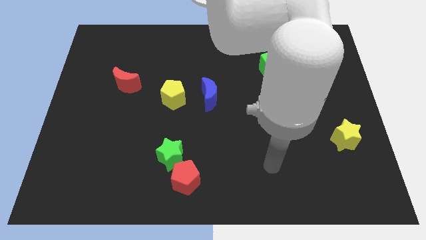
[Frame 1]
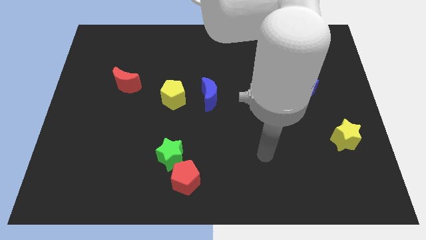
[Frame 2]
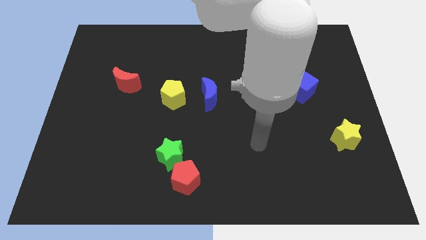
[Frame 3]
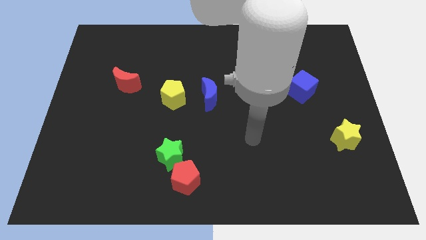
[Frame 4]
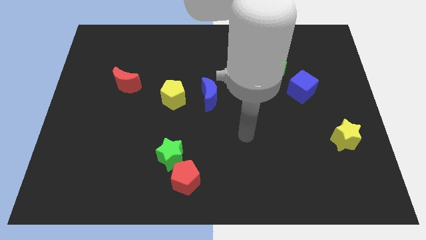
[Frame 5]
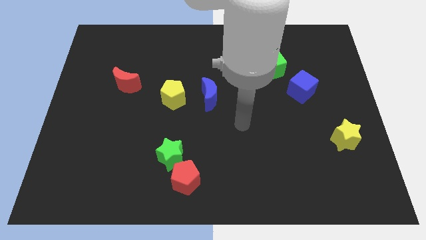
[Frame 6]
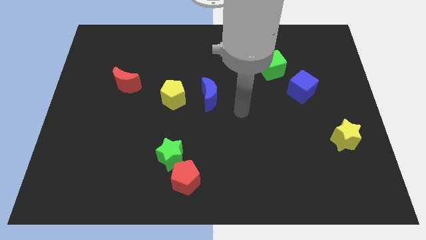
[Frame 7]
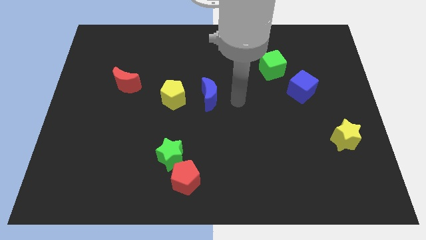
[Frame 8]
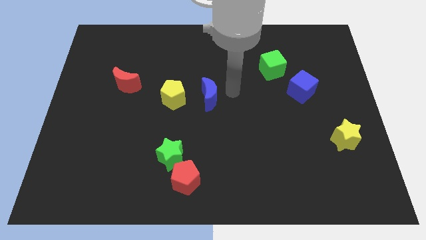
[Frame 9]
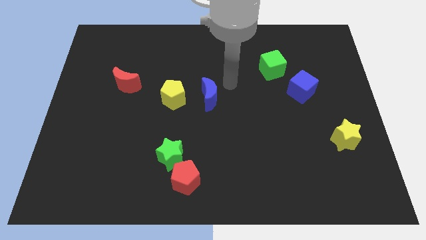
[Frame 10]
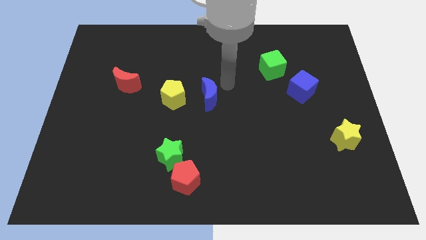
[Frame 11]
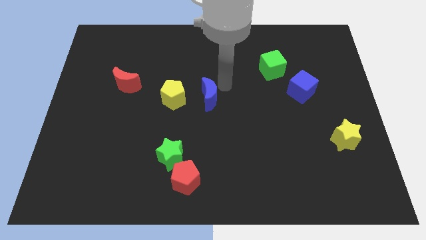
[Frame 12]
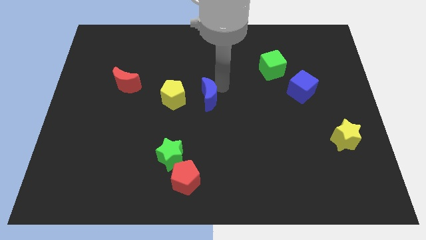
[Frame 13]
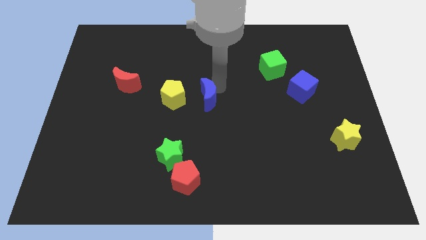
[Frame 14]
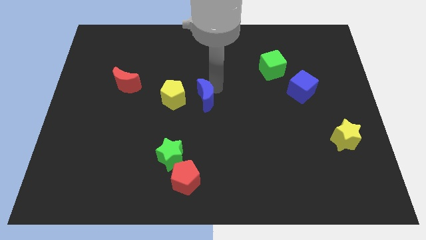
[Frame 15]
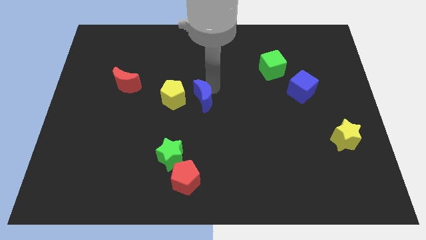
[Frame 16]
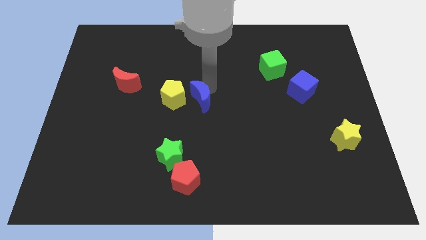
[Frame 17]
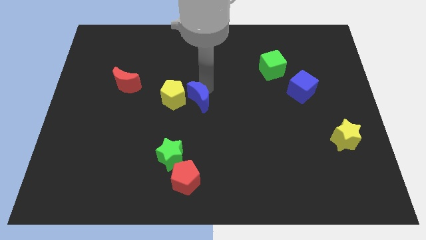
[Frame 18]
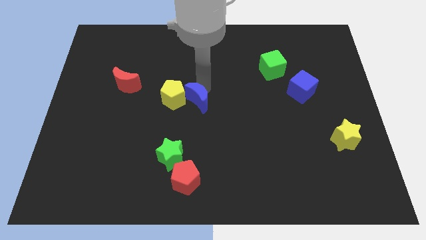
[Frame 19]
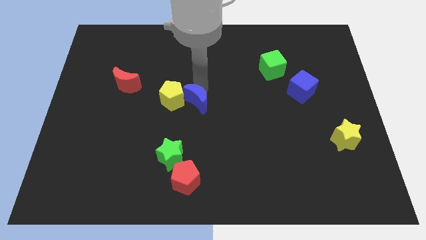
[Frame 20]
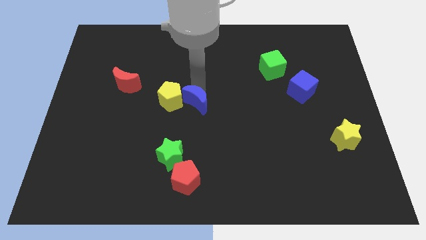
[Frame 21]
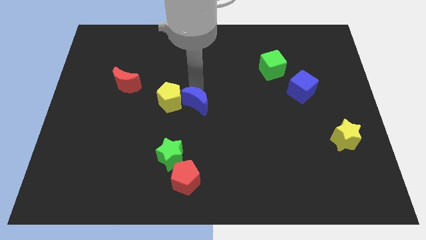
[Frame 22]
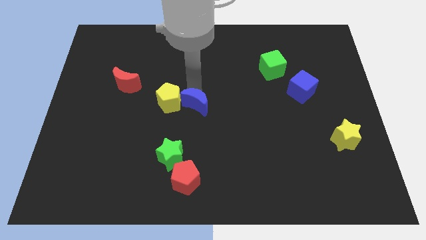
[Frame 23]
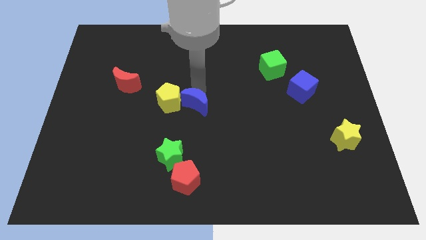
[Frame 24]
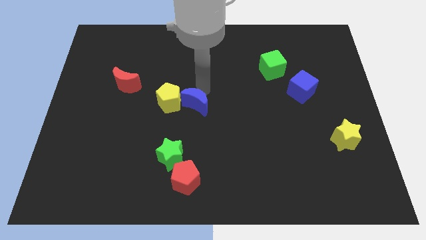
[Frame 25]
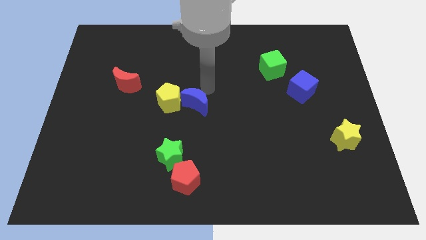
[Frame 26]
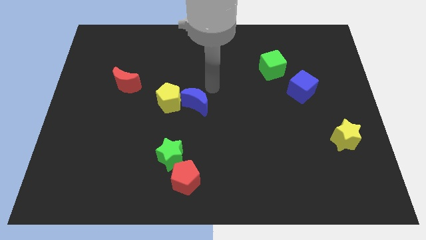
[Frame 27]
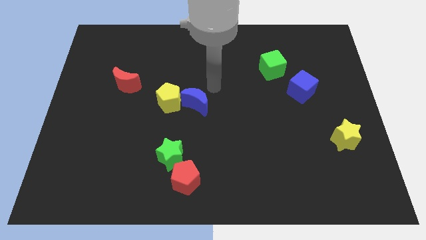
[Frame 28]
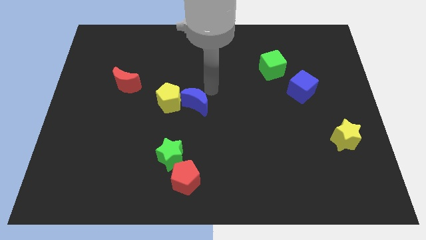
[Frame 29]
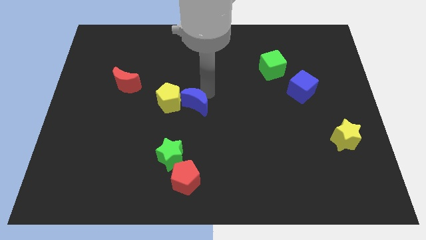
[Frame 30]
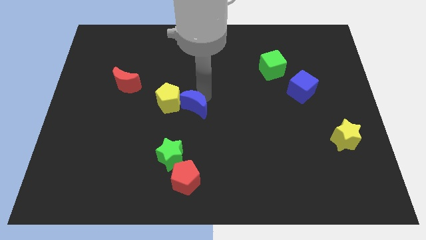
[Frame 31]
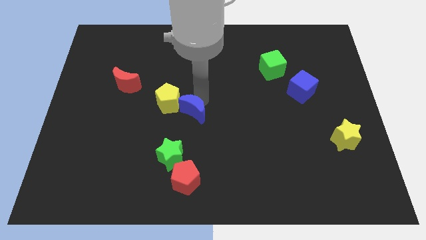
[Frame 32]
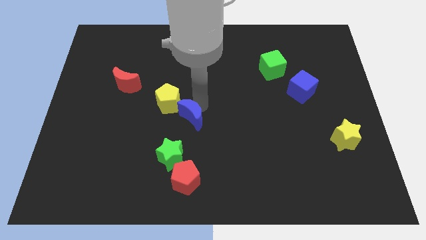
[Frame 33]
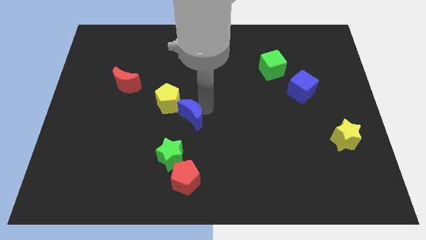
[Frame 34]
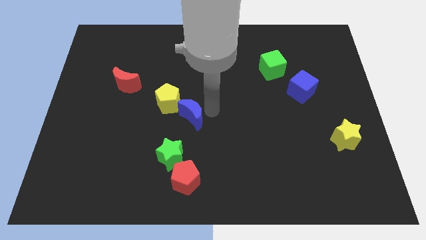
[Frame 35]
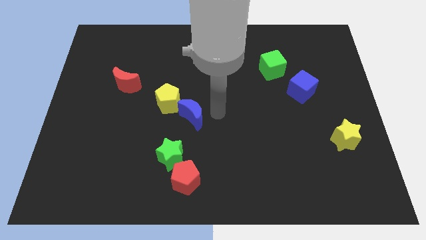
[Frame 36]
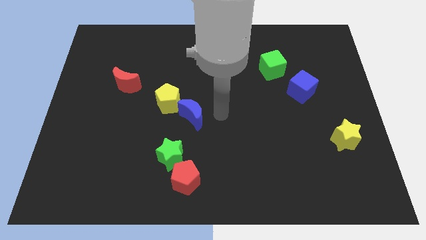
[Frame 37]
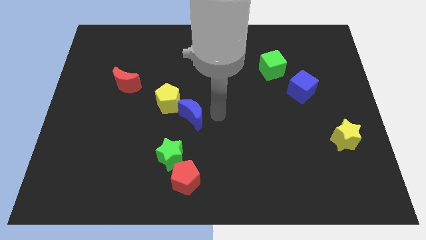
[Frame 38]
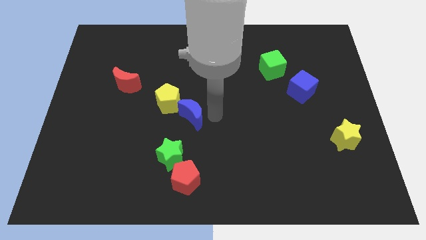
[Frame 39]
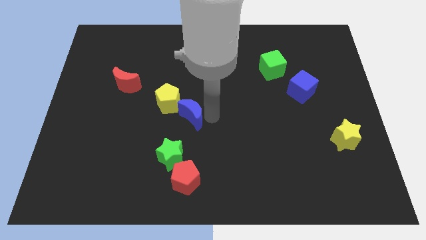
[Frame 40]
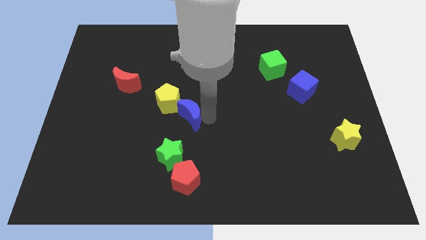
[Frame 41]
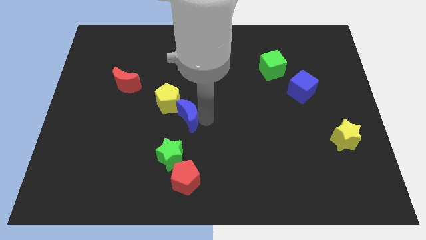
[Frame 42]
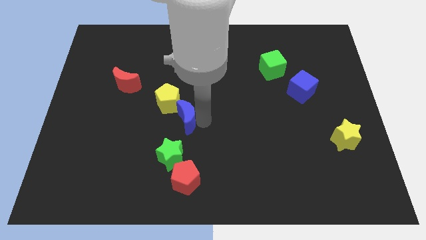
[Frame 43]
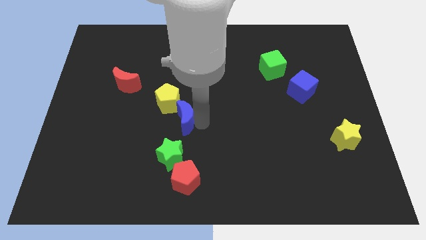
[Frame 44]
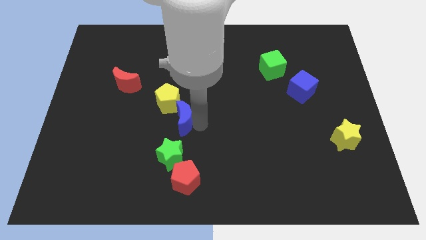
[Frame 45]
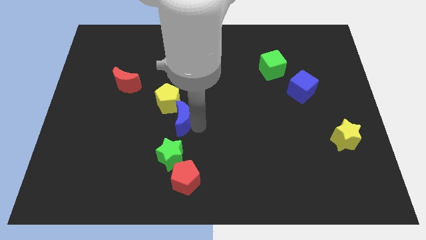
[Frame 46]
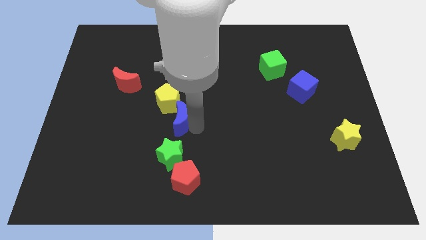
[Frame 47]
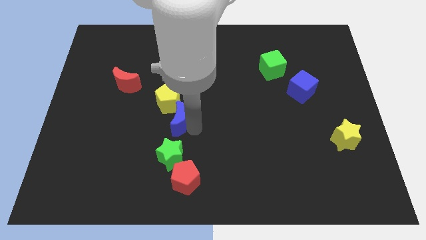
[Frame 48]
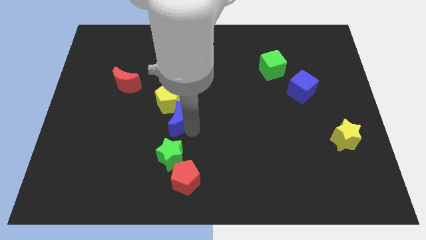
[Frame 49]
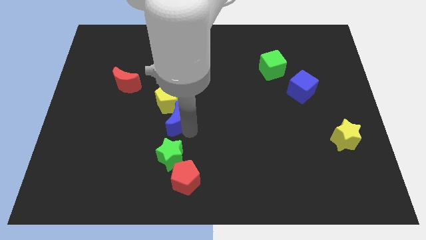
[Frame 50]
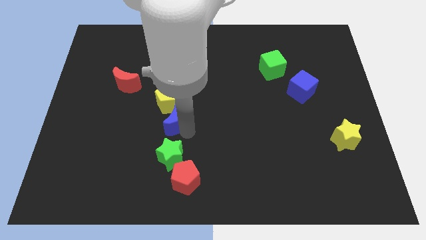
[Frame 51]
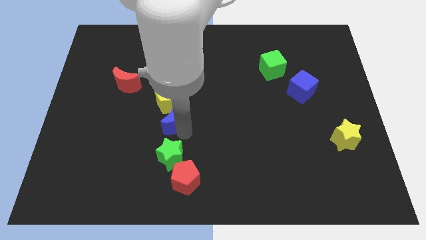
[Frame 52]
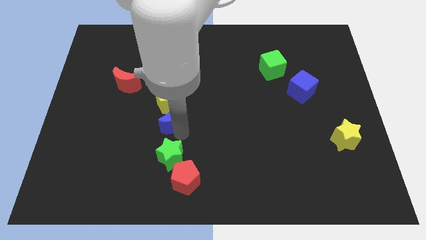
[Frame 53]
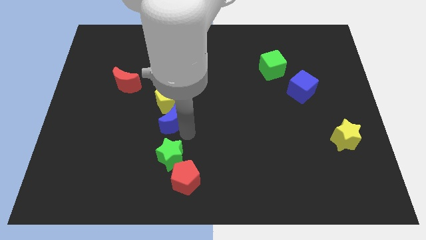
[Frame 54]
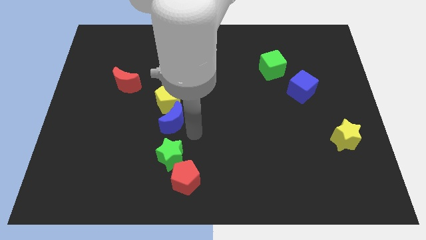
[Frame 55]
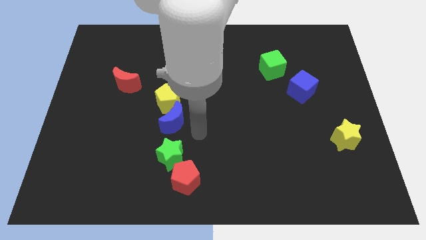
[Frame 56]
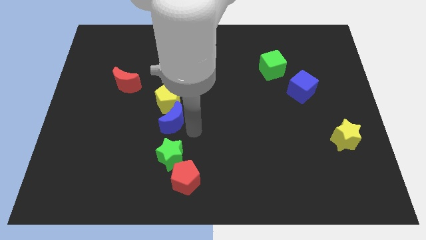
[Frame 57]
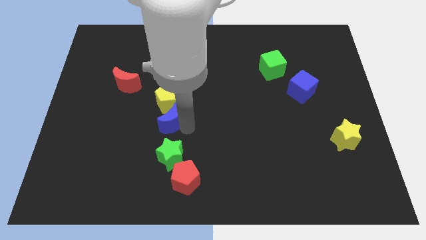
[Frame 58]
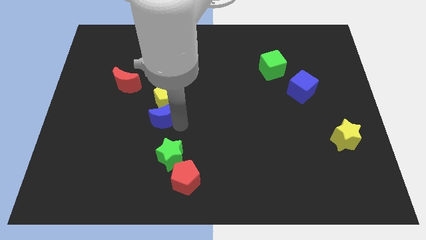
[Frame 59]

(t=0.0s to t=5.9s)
slightly move the blue moon left

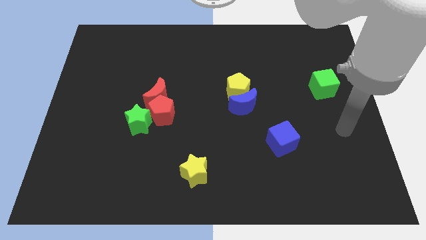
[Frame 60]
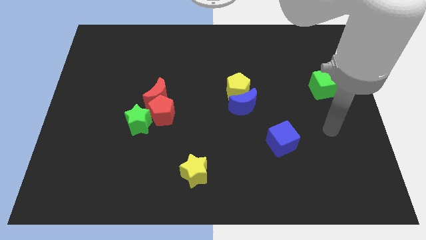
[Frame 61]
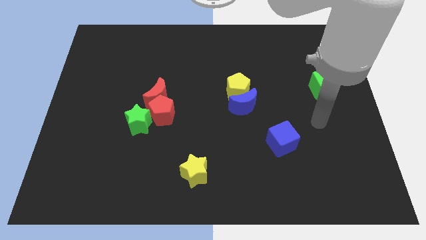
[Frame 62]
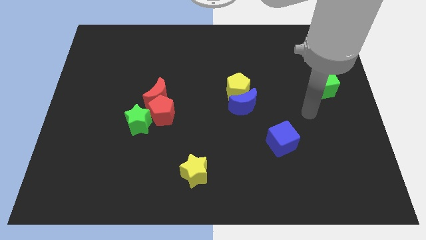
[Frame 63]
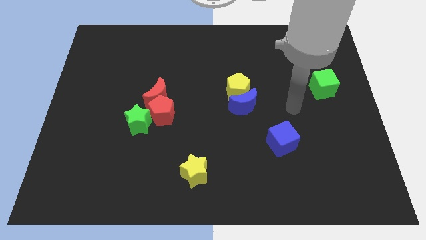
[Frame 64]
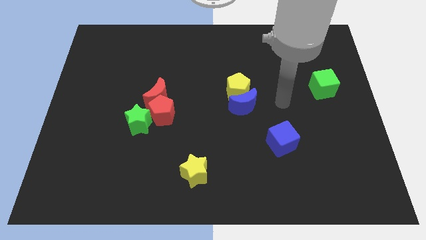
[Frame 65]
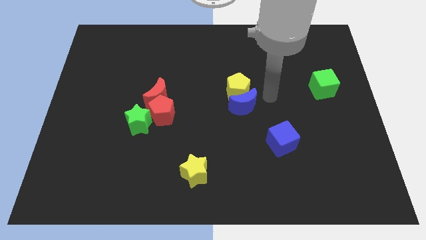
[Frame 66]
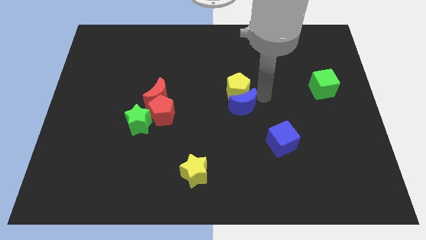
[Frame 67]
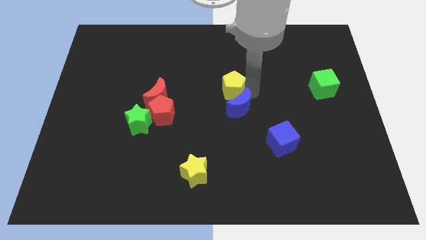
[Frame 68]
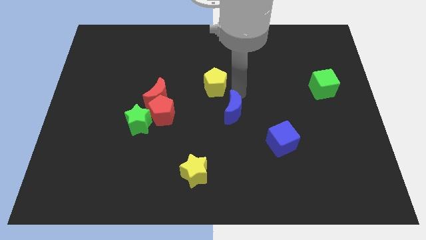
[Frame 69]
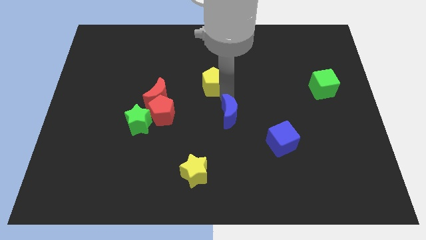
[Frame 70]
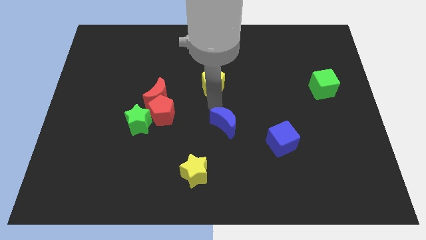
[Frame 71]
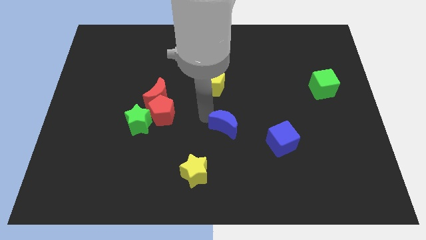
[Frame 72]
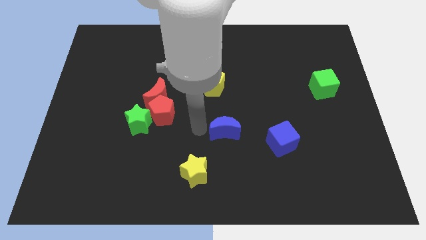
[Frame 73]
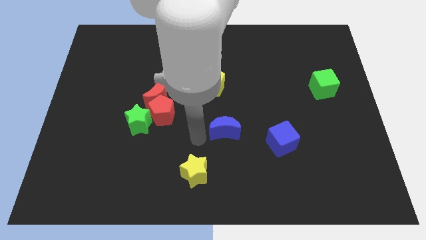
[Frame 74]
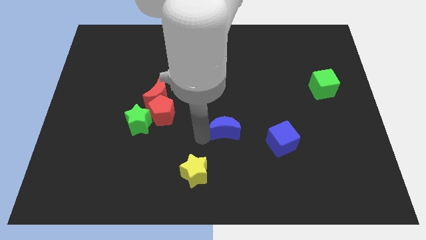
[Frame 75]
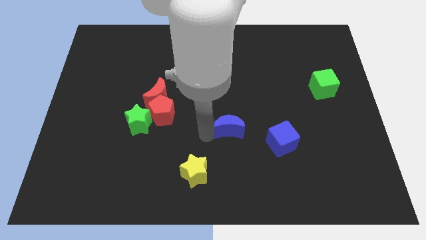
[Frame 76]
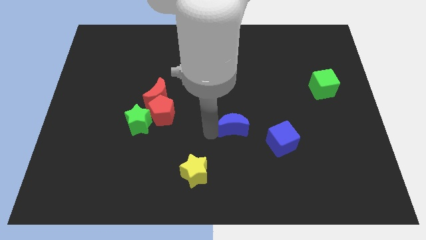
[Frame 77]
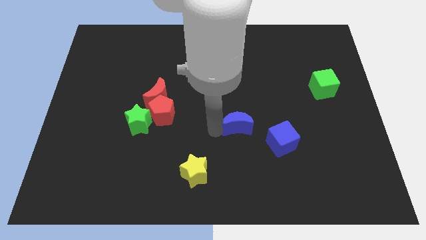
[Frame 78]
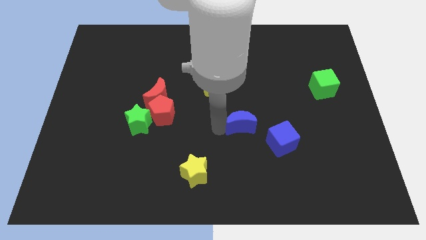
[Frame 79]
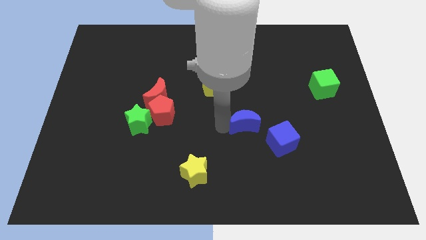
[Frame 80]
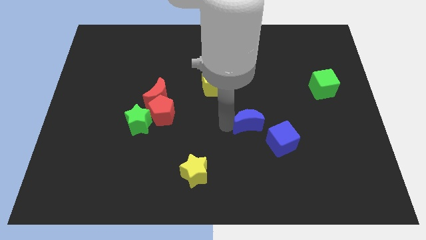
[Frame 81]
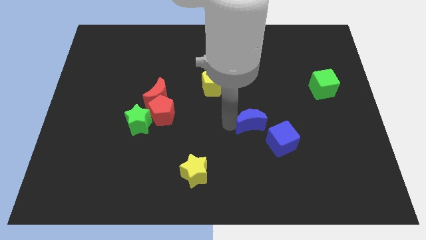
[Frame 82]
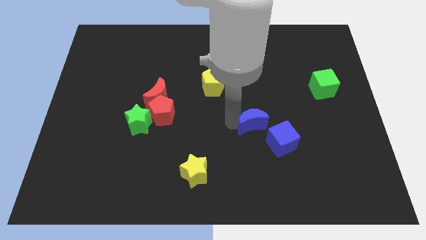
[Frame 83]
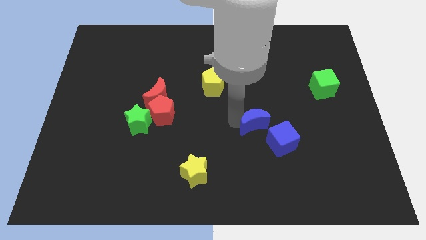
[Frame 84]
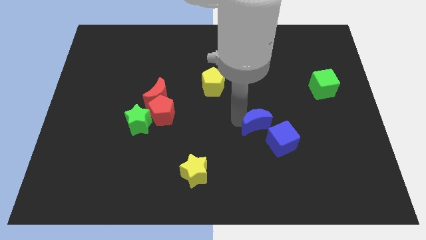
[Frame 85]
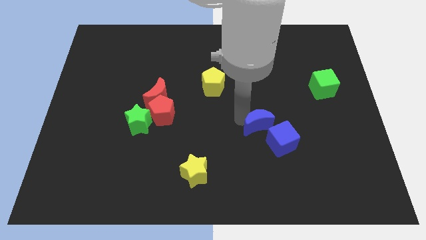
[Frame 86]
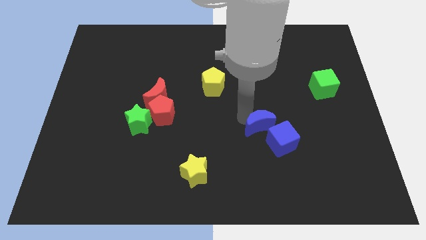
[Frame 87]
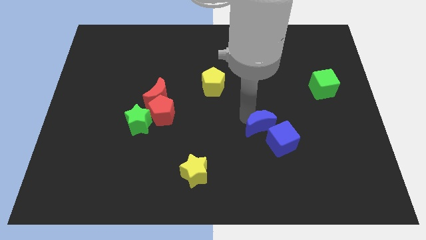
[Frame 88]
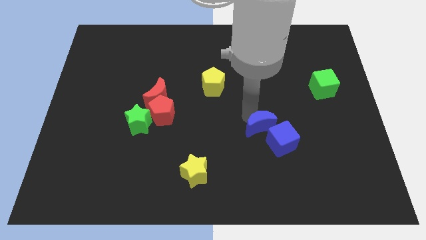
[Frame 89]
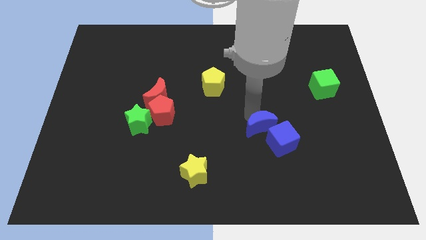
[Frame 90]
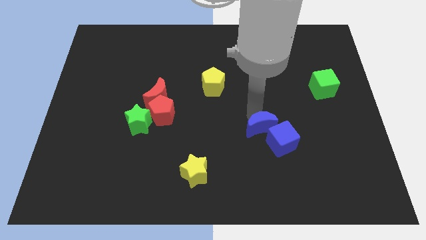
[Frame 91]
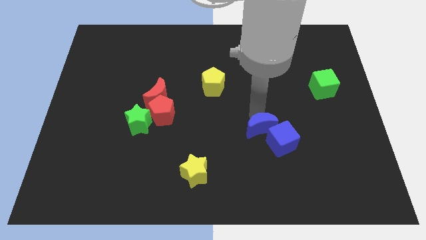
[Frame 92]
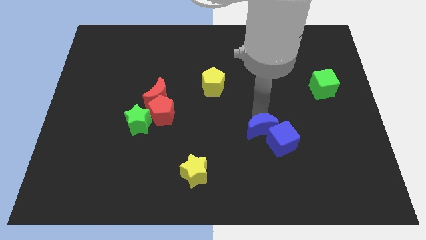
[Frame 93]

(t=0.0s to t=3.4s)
slightly move the blue moon down and right
